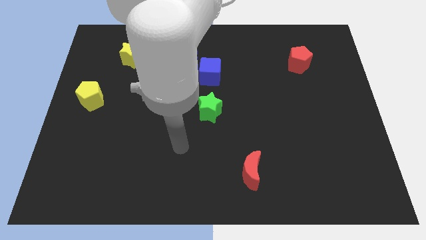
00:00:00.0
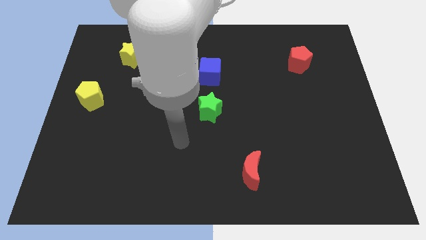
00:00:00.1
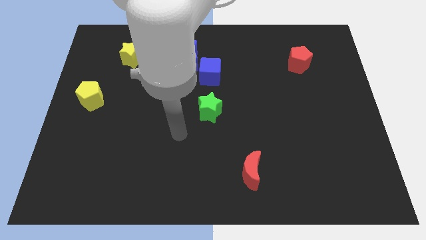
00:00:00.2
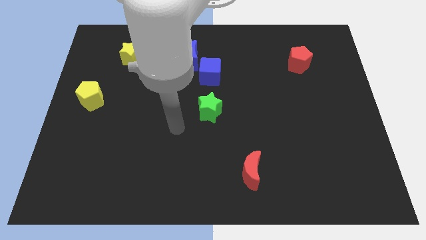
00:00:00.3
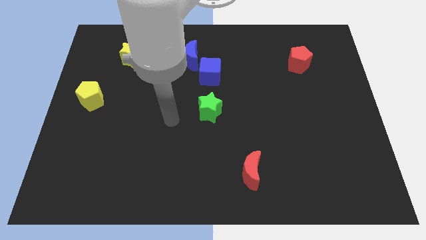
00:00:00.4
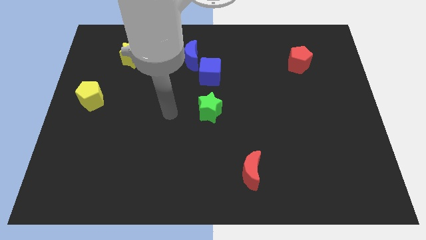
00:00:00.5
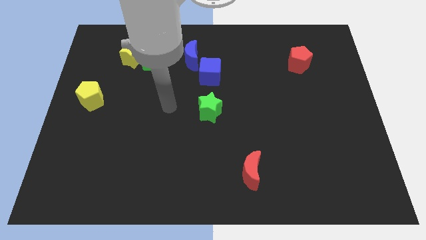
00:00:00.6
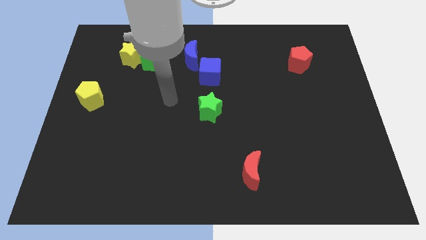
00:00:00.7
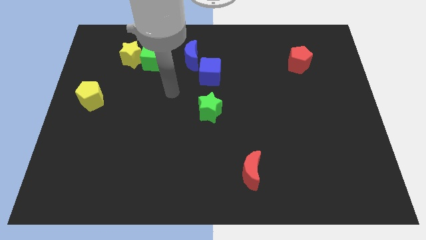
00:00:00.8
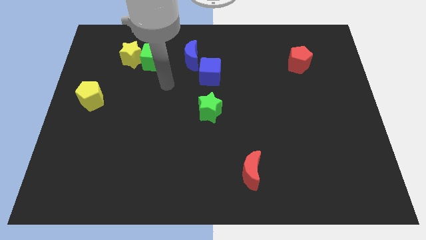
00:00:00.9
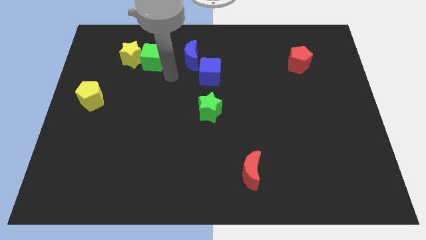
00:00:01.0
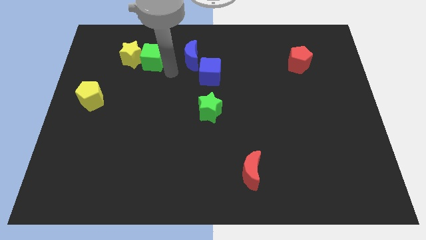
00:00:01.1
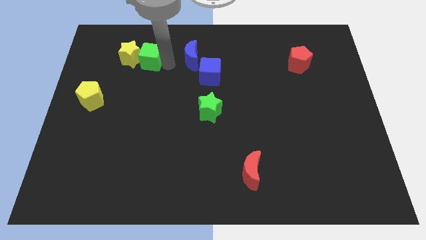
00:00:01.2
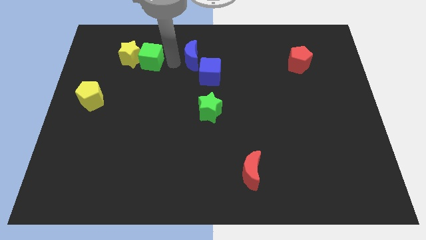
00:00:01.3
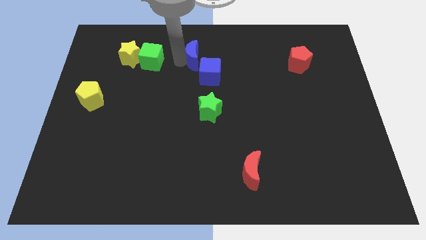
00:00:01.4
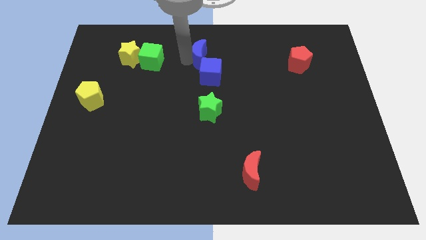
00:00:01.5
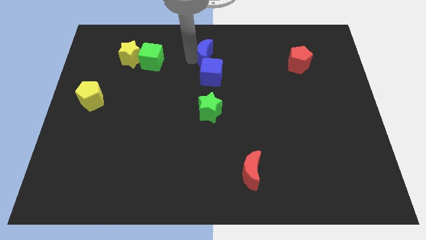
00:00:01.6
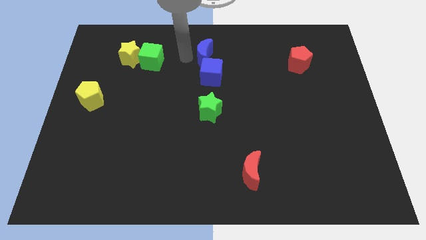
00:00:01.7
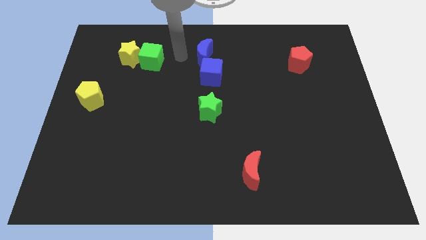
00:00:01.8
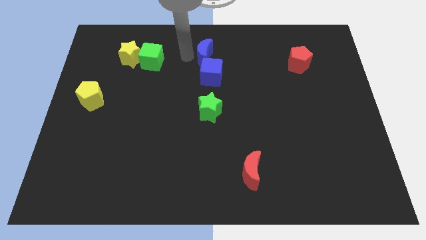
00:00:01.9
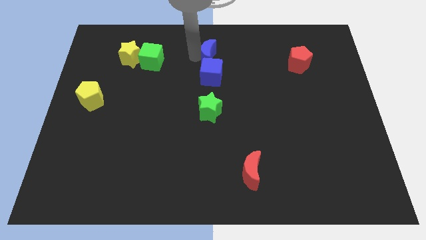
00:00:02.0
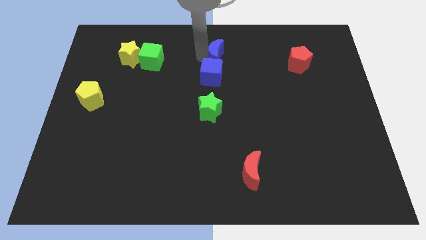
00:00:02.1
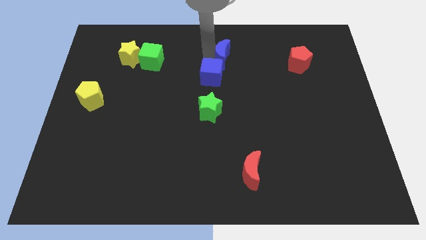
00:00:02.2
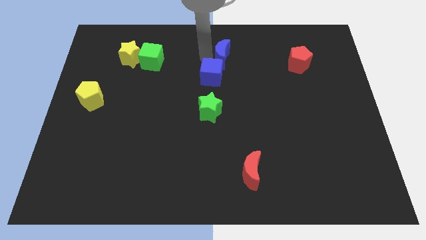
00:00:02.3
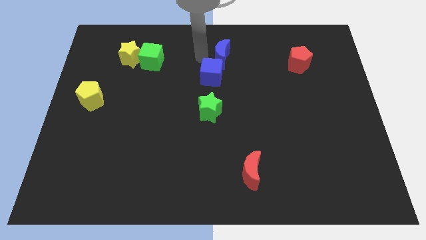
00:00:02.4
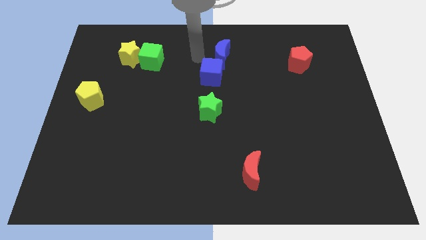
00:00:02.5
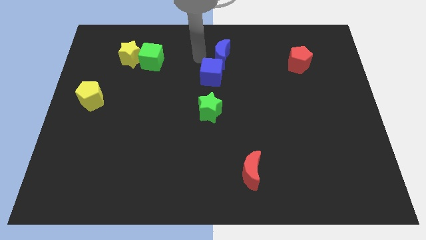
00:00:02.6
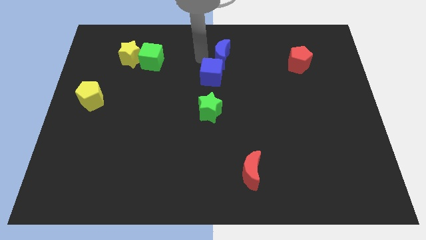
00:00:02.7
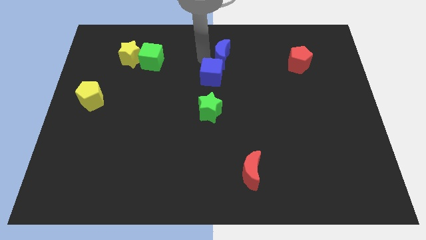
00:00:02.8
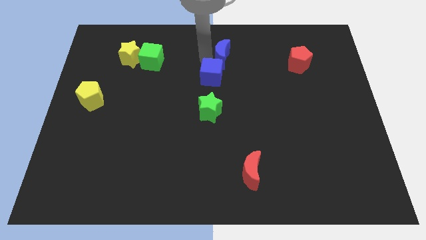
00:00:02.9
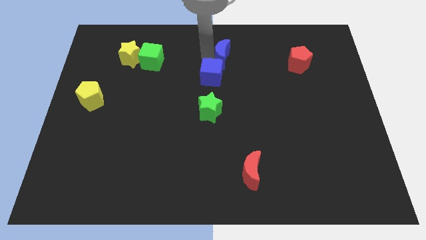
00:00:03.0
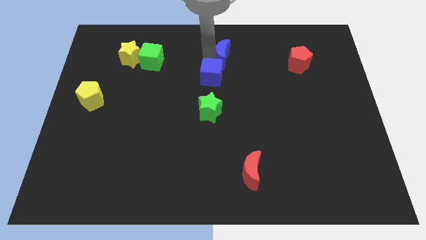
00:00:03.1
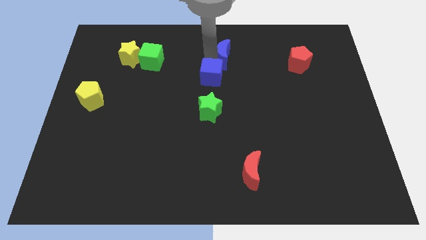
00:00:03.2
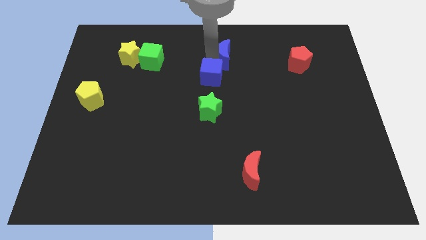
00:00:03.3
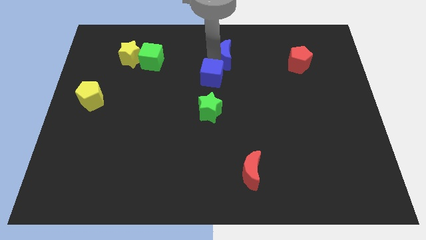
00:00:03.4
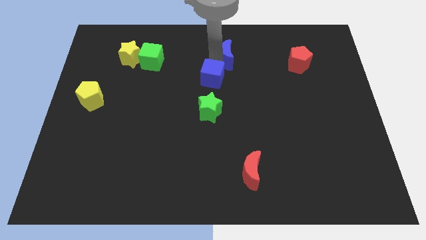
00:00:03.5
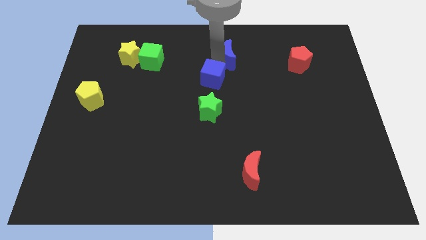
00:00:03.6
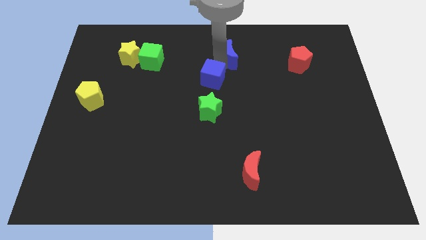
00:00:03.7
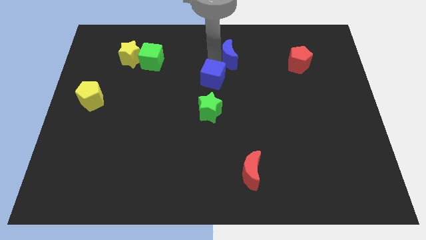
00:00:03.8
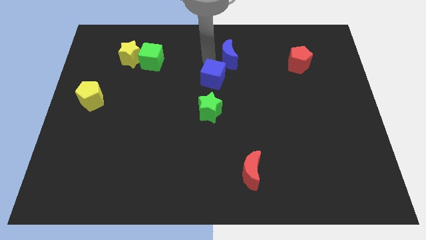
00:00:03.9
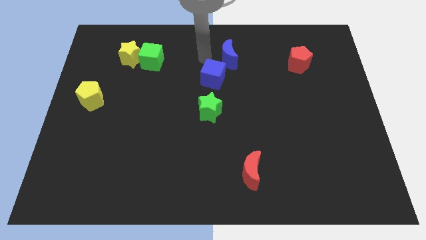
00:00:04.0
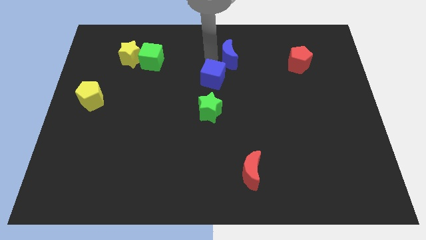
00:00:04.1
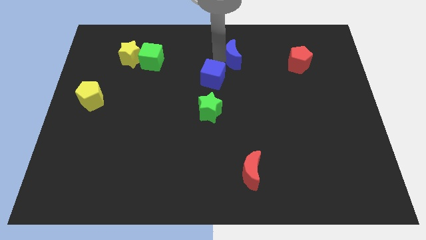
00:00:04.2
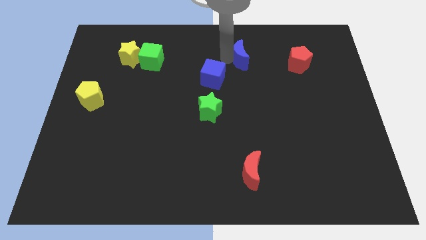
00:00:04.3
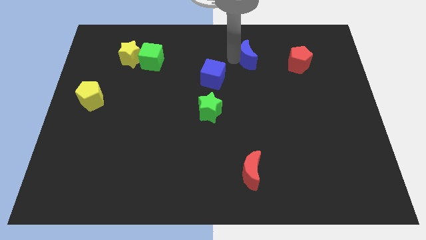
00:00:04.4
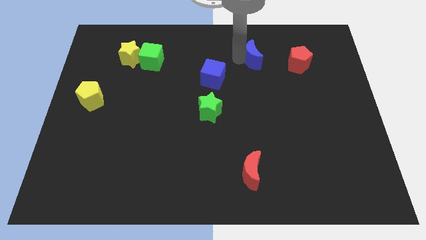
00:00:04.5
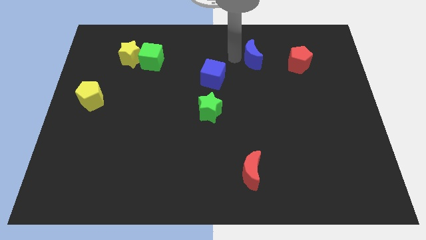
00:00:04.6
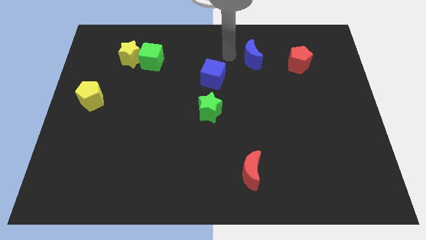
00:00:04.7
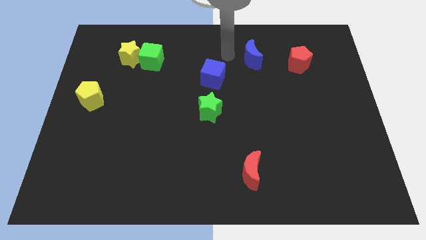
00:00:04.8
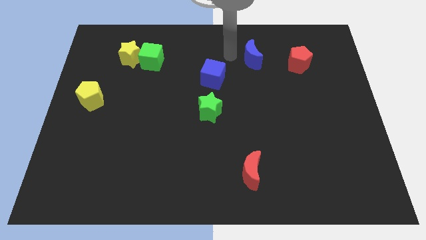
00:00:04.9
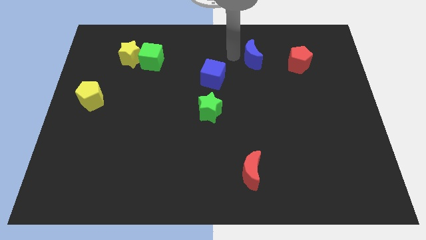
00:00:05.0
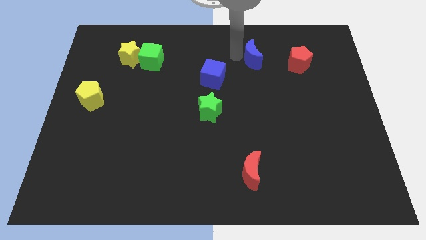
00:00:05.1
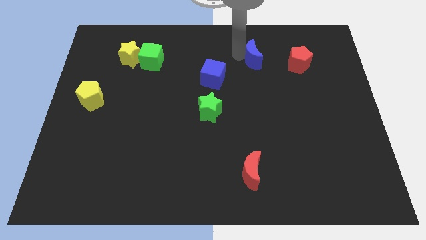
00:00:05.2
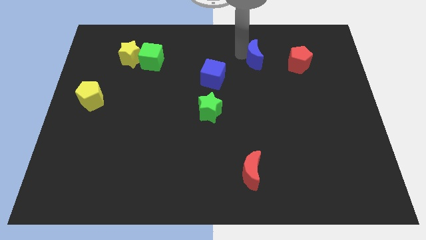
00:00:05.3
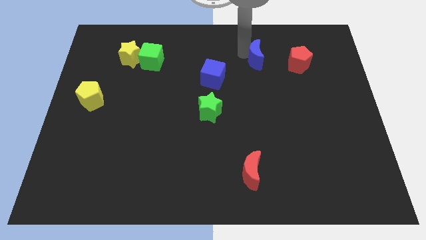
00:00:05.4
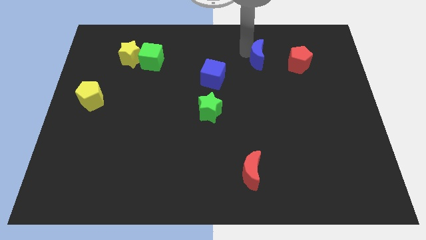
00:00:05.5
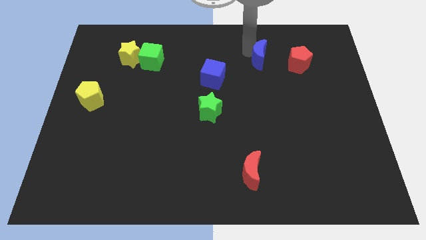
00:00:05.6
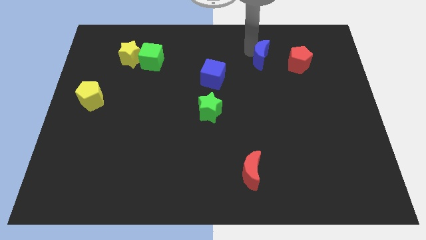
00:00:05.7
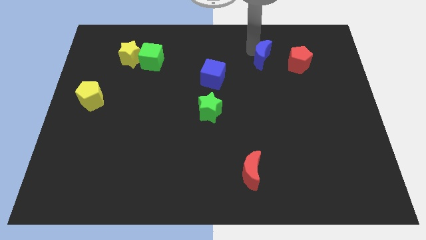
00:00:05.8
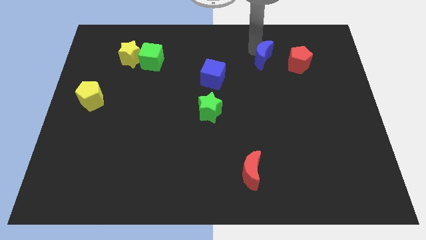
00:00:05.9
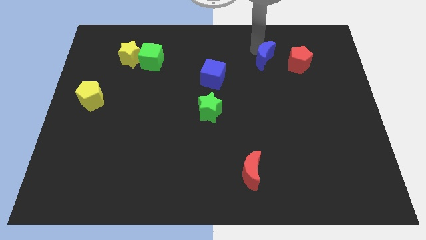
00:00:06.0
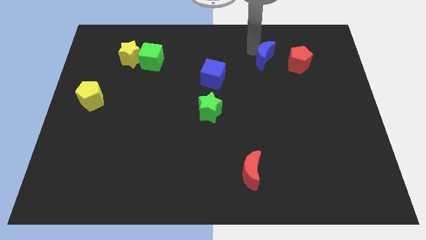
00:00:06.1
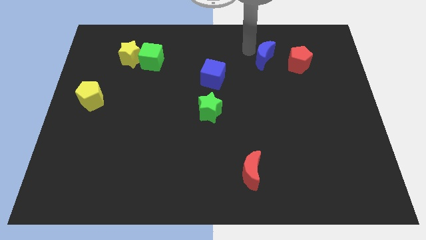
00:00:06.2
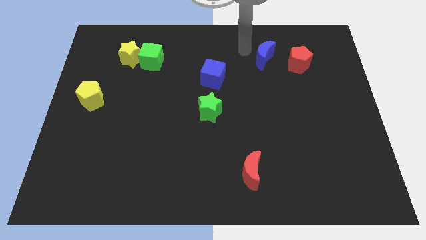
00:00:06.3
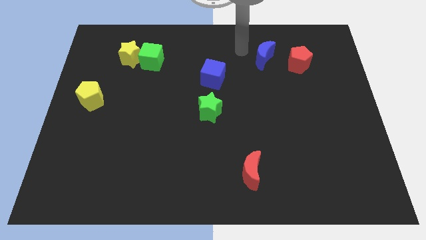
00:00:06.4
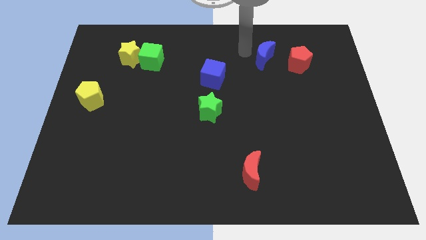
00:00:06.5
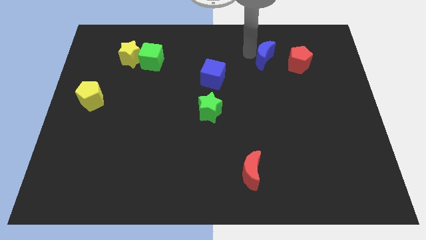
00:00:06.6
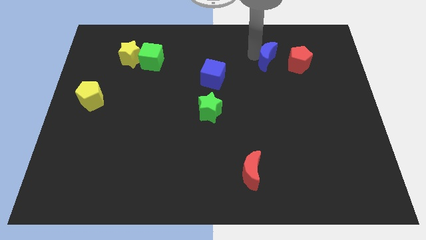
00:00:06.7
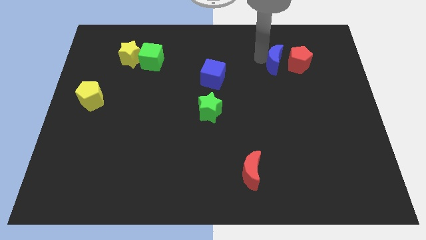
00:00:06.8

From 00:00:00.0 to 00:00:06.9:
put the blue moon towards the red pentagon

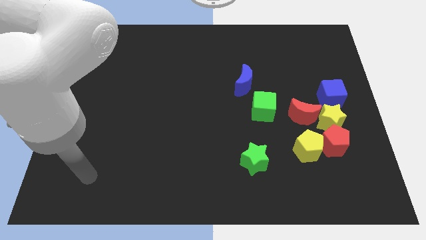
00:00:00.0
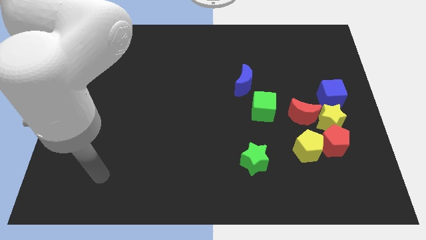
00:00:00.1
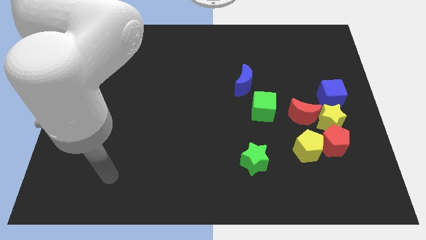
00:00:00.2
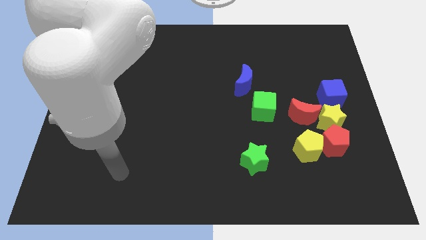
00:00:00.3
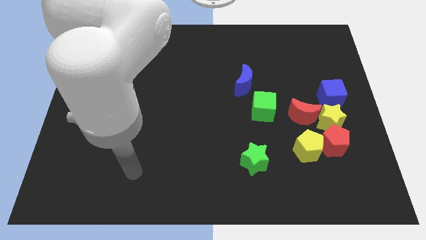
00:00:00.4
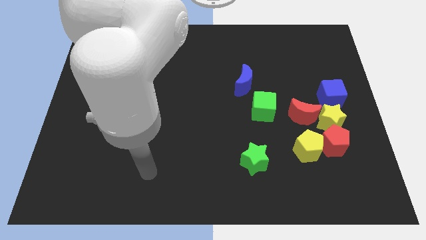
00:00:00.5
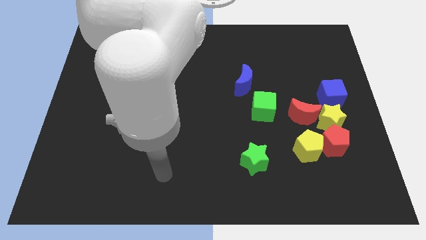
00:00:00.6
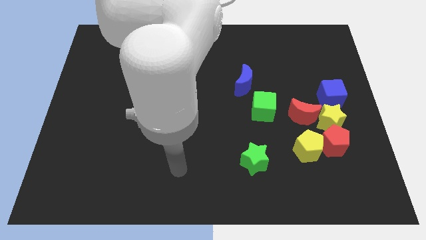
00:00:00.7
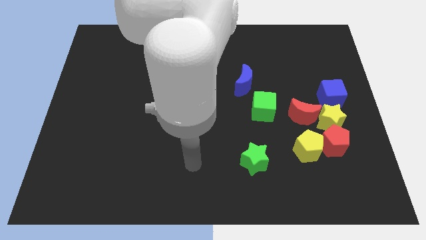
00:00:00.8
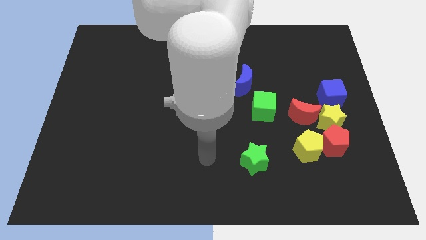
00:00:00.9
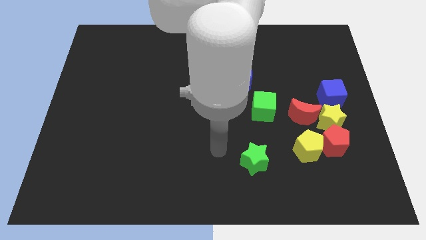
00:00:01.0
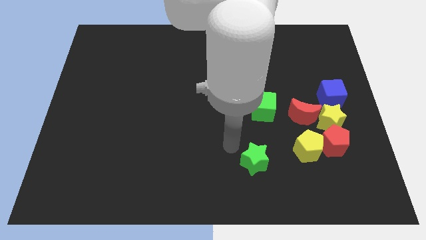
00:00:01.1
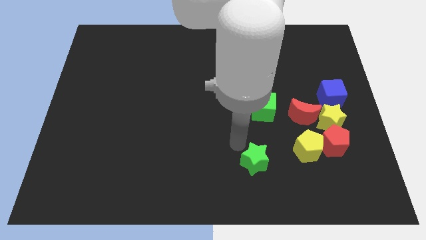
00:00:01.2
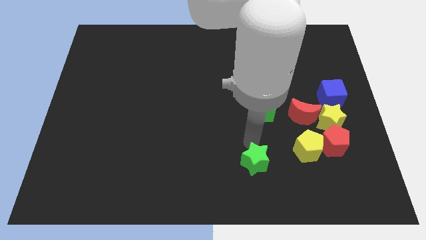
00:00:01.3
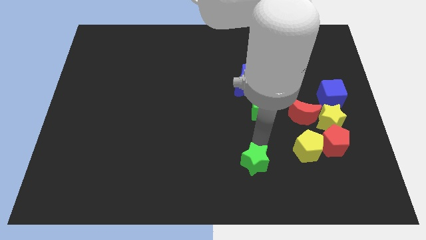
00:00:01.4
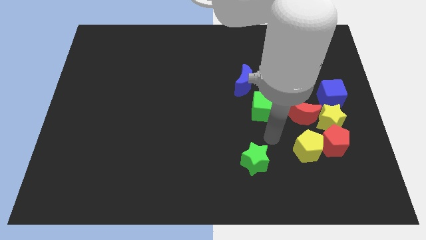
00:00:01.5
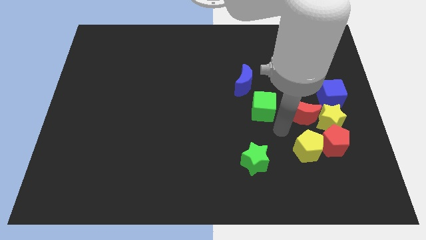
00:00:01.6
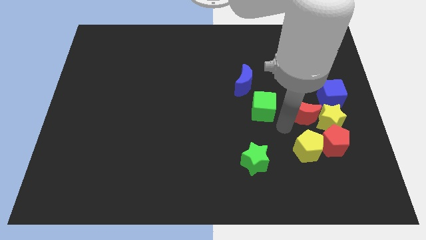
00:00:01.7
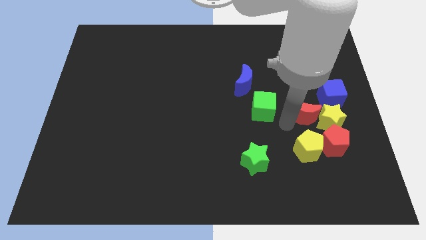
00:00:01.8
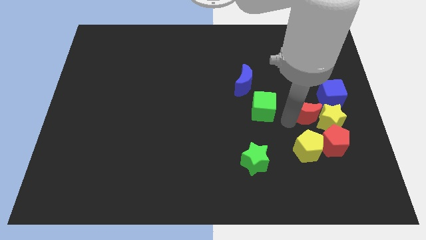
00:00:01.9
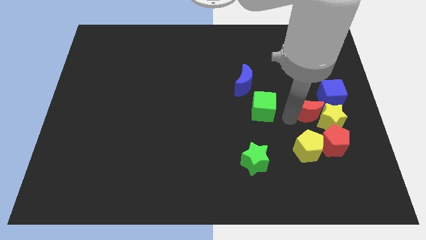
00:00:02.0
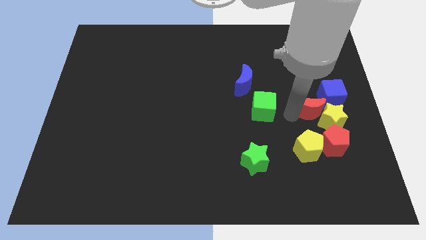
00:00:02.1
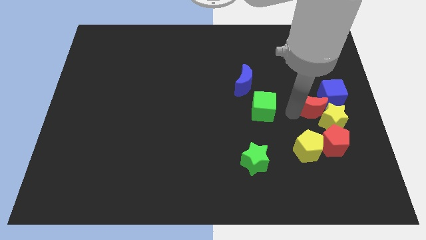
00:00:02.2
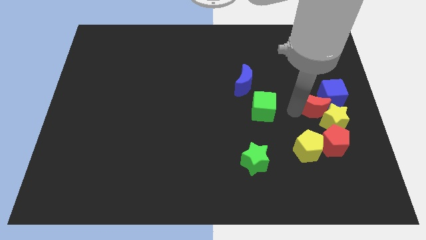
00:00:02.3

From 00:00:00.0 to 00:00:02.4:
move the red moon close to the blue cube
